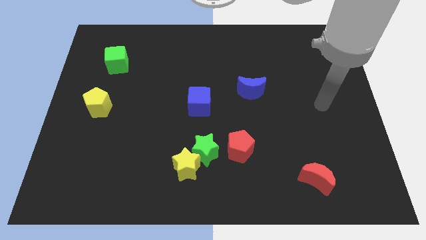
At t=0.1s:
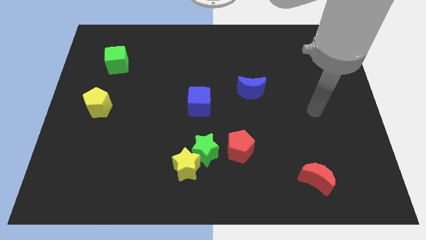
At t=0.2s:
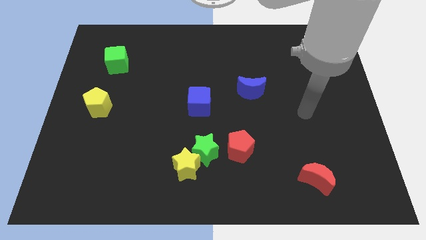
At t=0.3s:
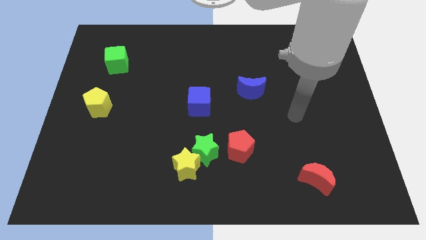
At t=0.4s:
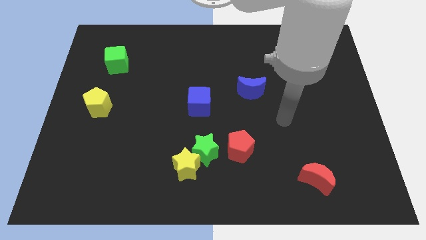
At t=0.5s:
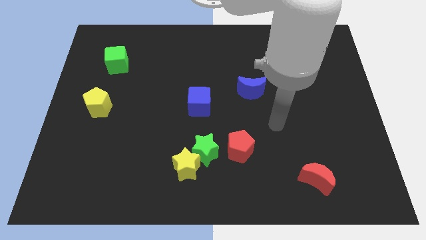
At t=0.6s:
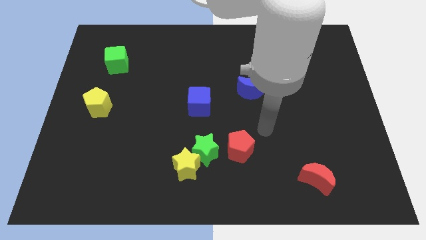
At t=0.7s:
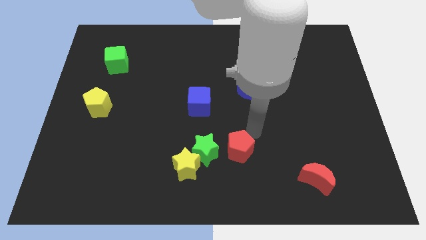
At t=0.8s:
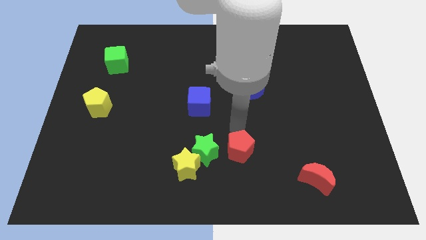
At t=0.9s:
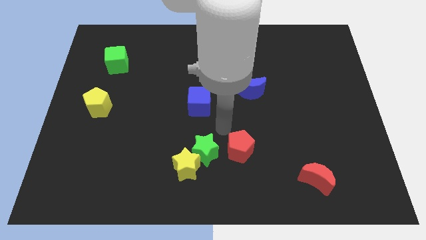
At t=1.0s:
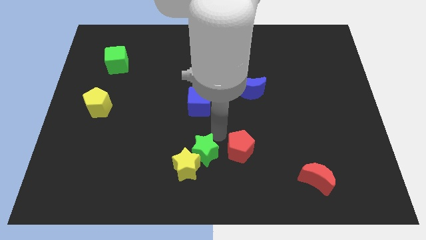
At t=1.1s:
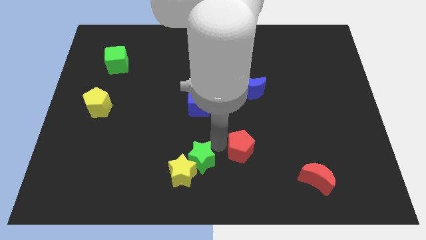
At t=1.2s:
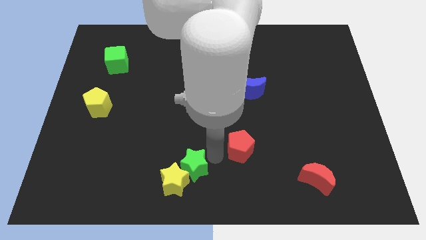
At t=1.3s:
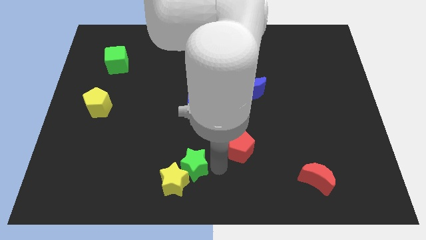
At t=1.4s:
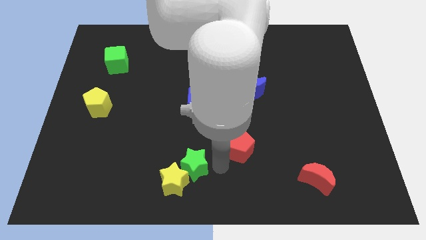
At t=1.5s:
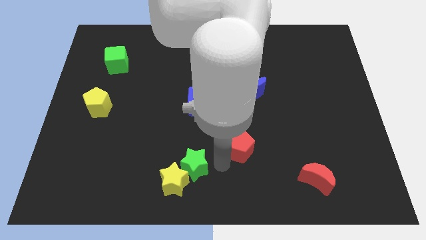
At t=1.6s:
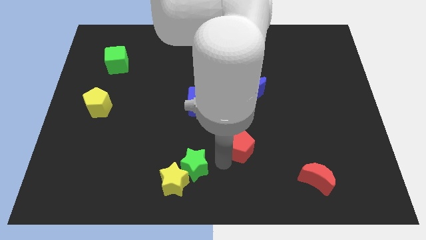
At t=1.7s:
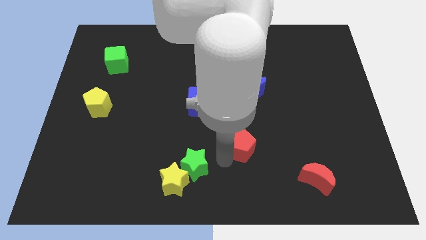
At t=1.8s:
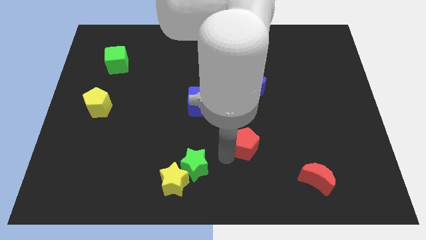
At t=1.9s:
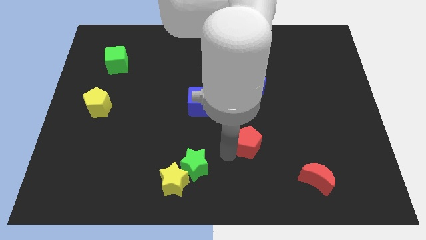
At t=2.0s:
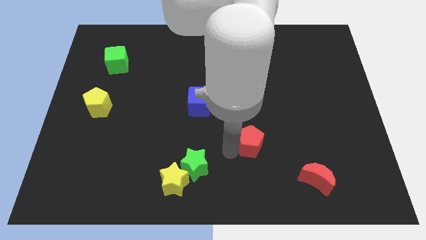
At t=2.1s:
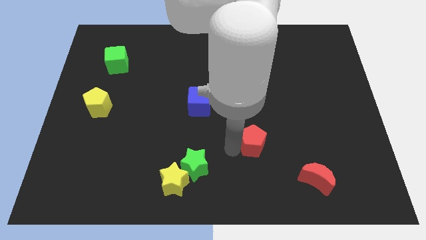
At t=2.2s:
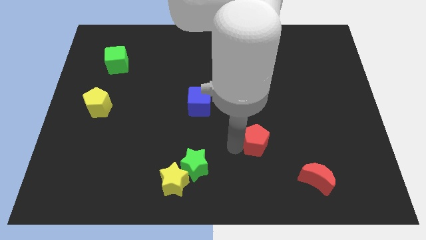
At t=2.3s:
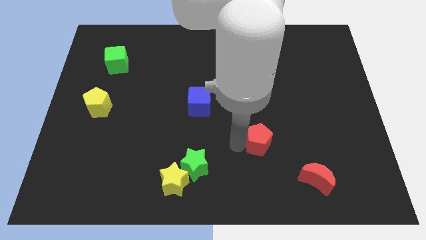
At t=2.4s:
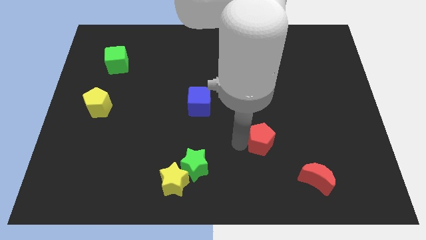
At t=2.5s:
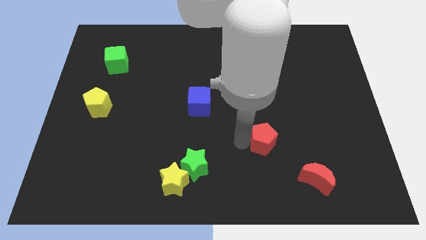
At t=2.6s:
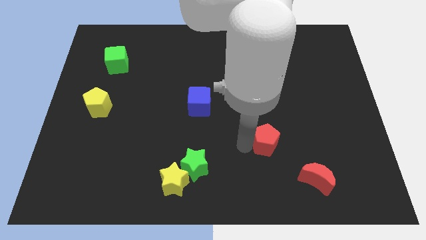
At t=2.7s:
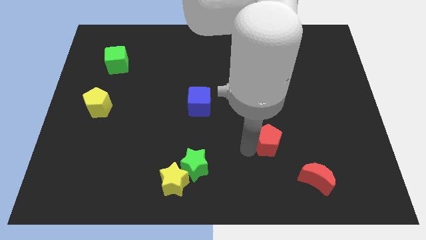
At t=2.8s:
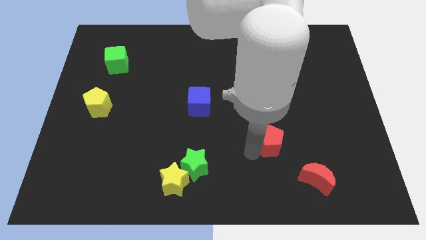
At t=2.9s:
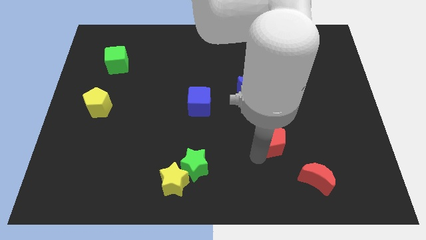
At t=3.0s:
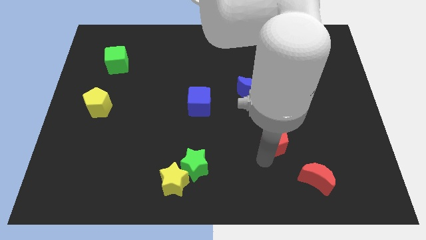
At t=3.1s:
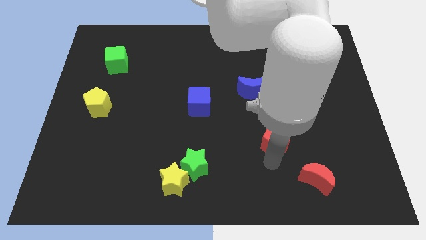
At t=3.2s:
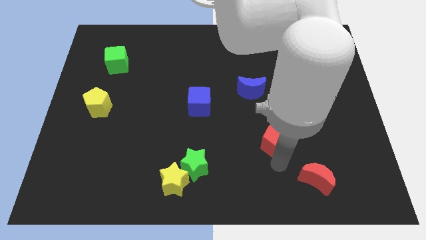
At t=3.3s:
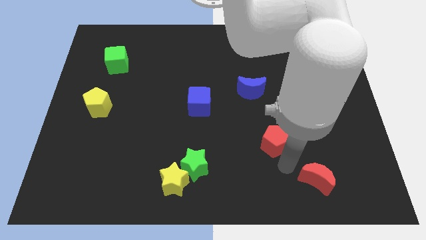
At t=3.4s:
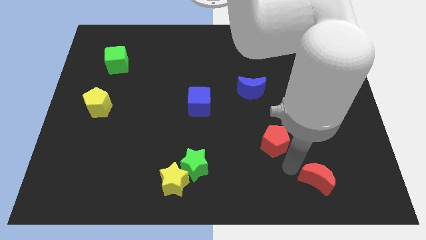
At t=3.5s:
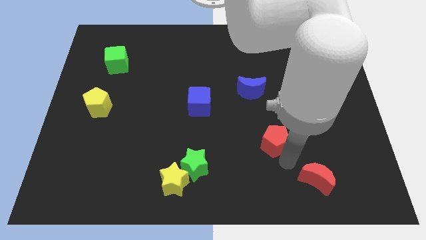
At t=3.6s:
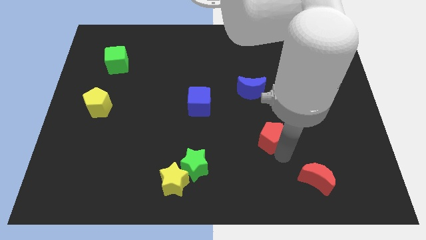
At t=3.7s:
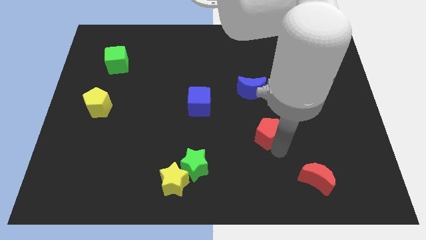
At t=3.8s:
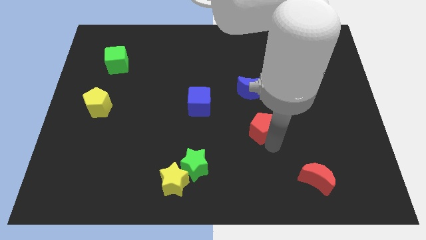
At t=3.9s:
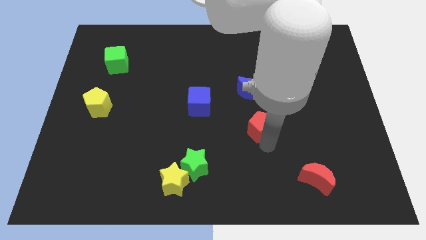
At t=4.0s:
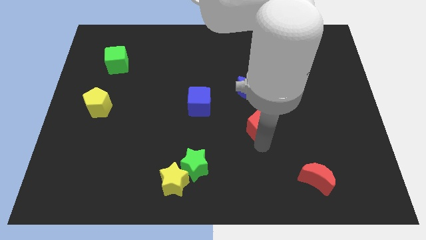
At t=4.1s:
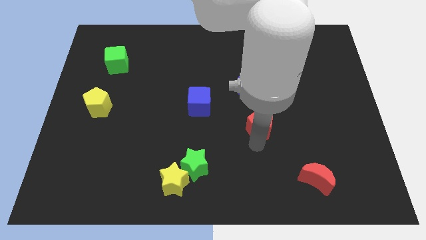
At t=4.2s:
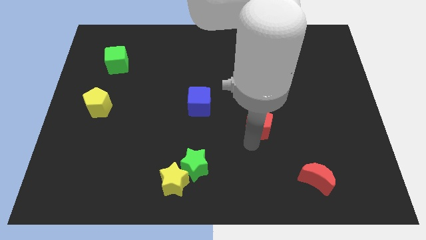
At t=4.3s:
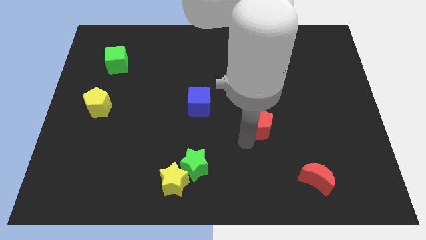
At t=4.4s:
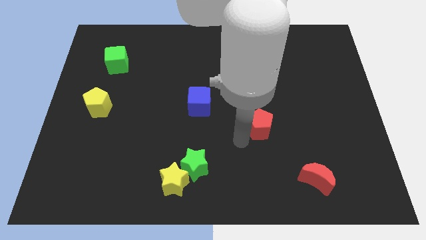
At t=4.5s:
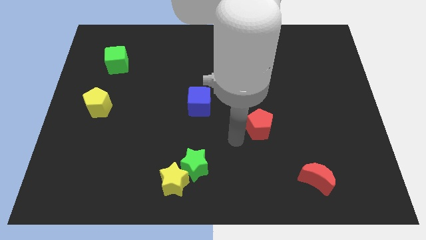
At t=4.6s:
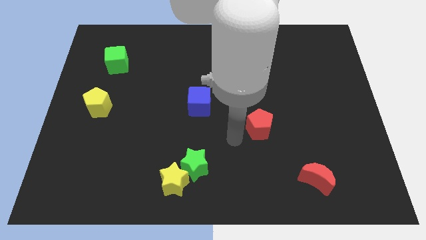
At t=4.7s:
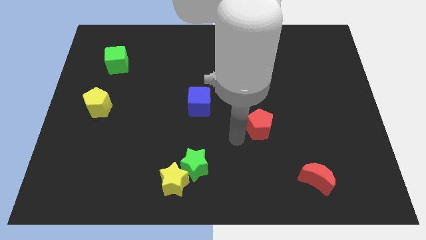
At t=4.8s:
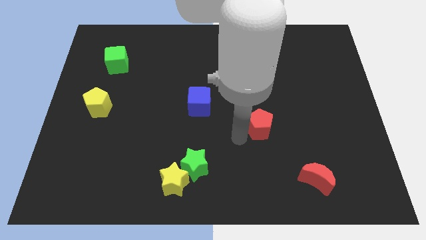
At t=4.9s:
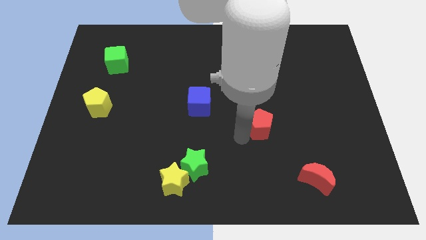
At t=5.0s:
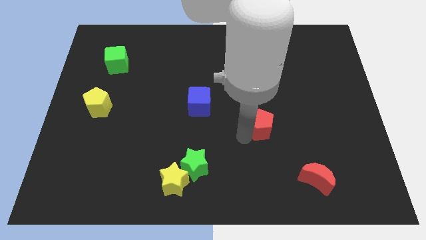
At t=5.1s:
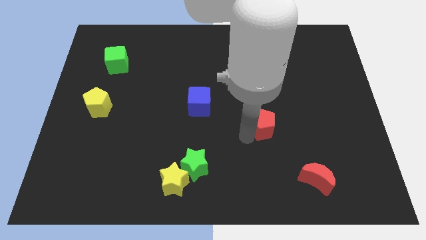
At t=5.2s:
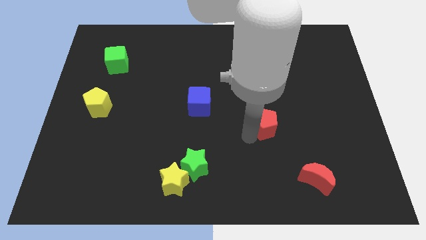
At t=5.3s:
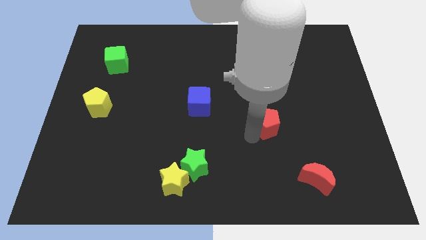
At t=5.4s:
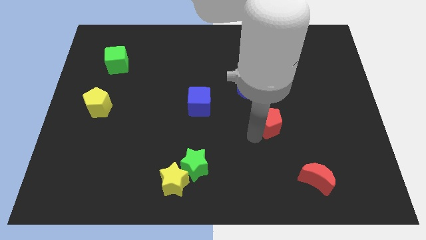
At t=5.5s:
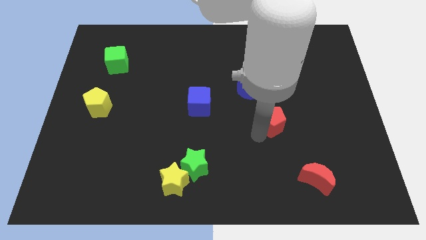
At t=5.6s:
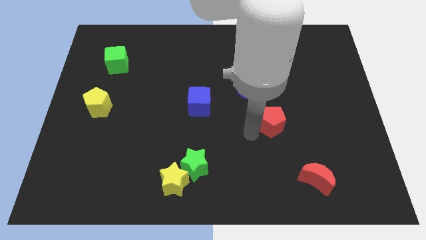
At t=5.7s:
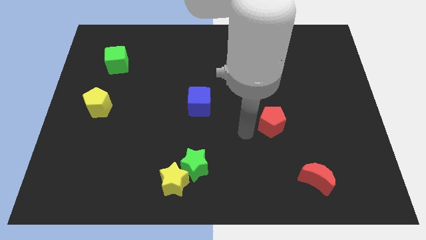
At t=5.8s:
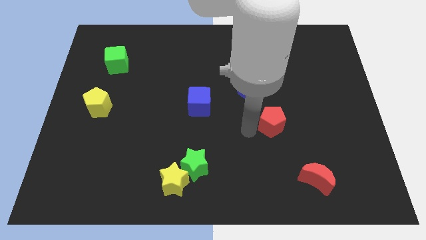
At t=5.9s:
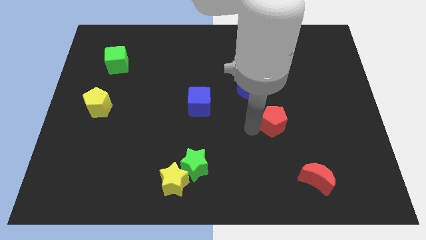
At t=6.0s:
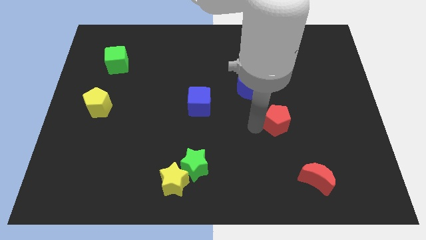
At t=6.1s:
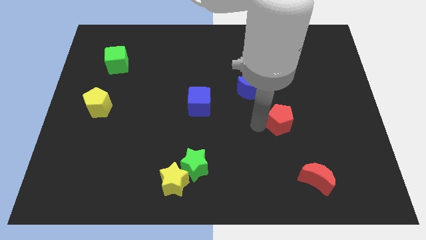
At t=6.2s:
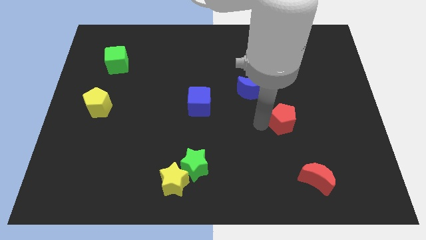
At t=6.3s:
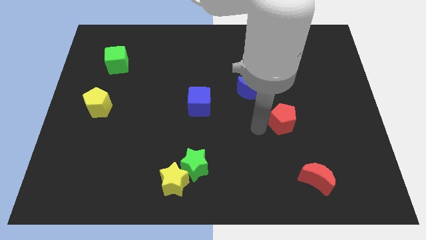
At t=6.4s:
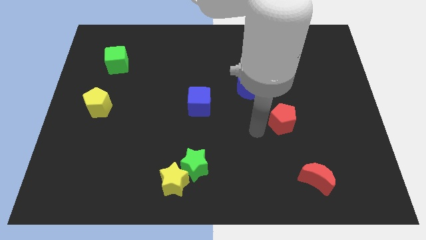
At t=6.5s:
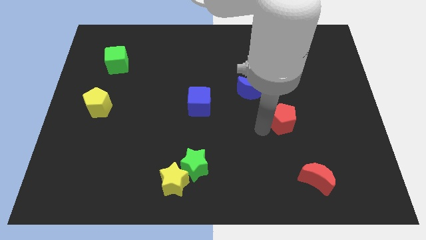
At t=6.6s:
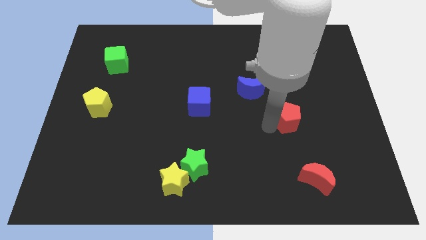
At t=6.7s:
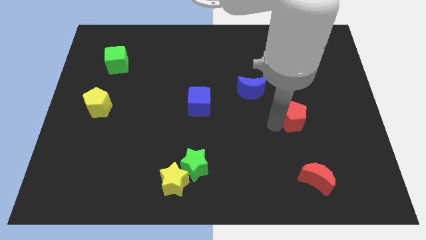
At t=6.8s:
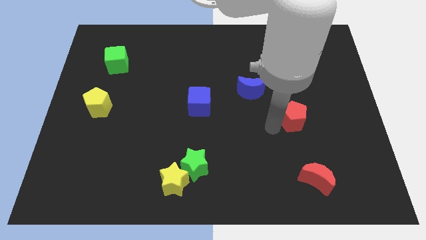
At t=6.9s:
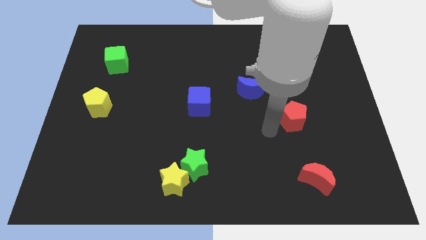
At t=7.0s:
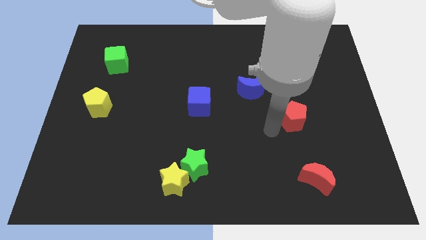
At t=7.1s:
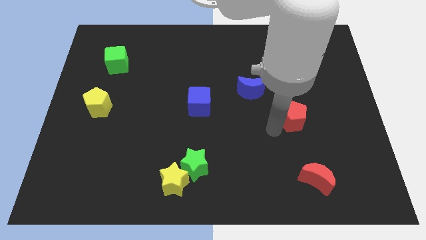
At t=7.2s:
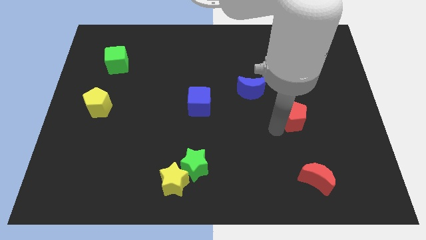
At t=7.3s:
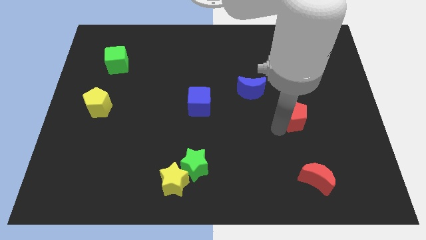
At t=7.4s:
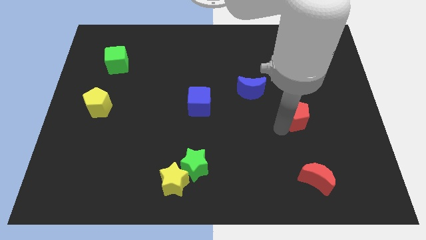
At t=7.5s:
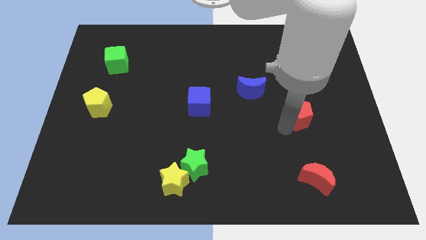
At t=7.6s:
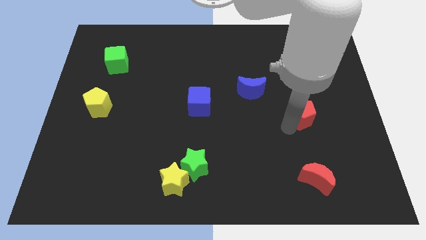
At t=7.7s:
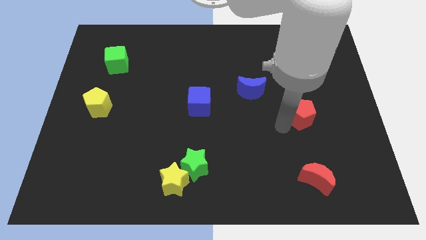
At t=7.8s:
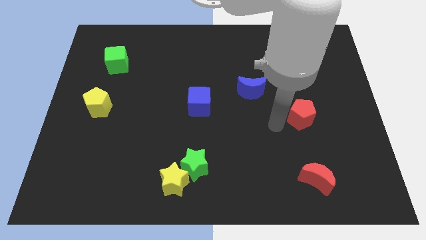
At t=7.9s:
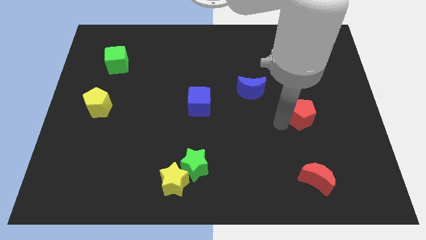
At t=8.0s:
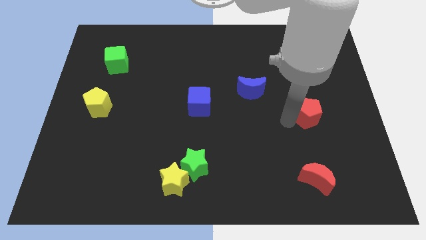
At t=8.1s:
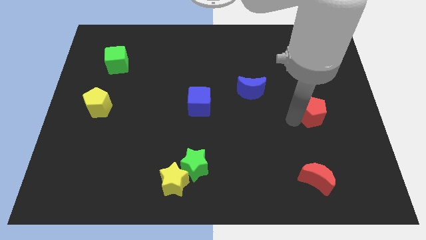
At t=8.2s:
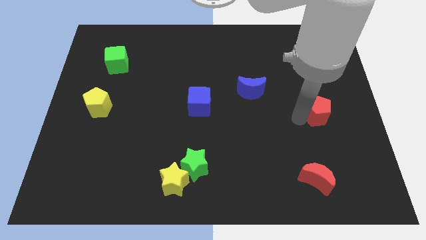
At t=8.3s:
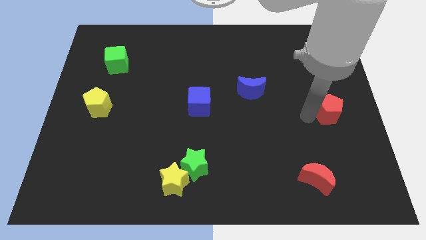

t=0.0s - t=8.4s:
push the red pentagon to the right side of the board
